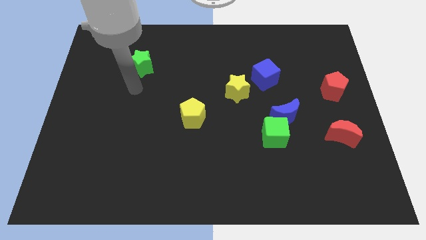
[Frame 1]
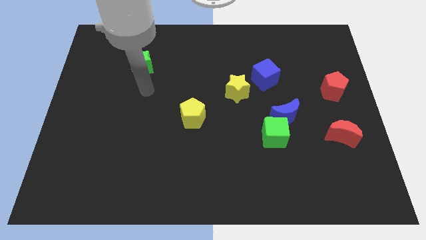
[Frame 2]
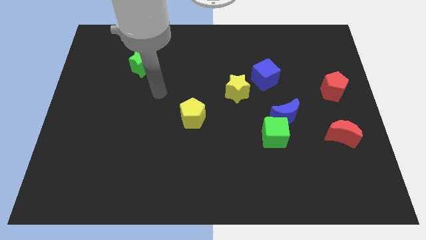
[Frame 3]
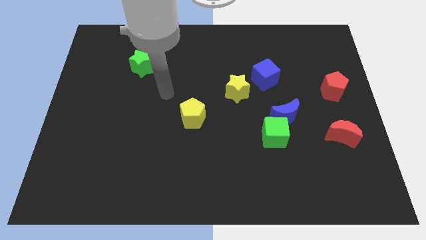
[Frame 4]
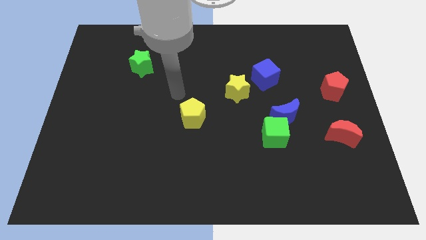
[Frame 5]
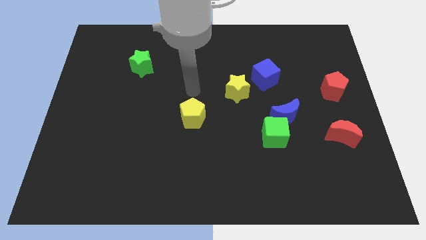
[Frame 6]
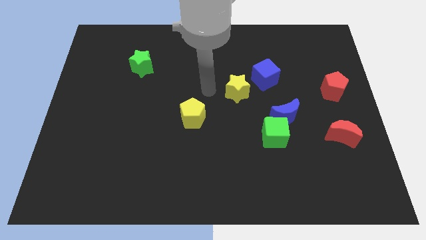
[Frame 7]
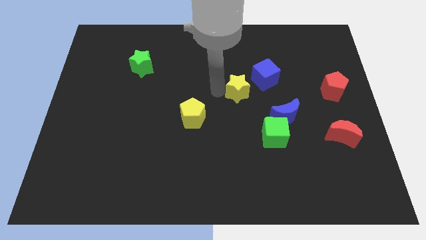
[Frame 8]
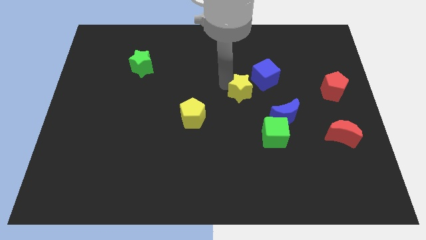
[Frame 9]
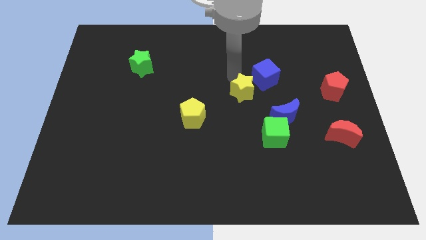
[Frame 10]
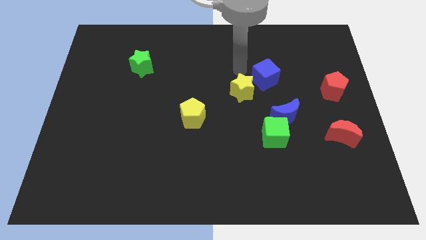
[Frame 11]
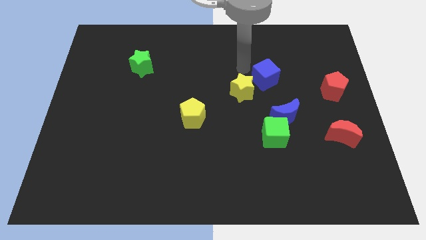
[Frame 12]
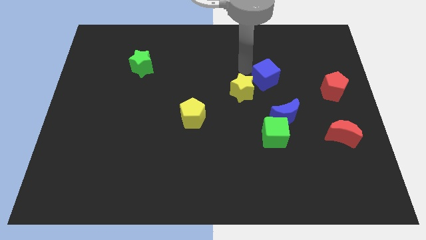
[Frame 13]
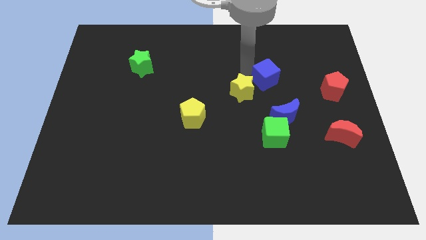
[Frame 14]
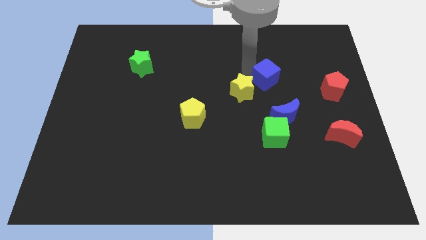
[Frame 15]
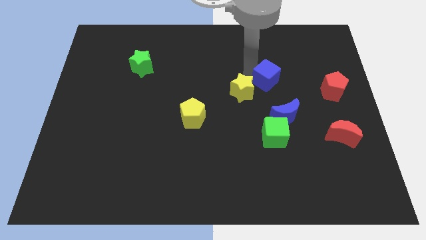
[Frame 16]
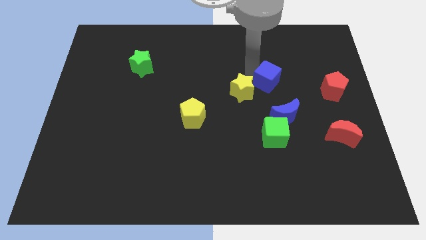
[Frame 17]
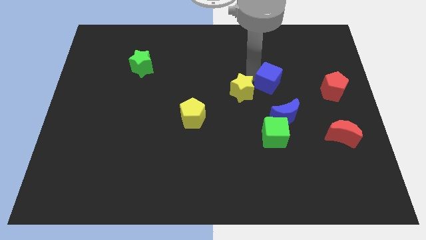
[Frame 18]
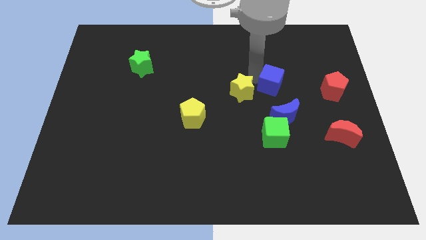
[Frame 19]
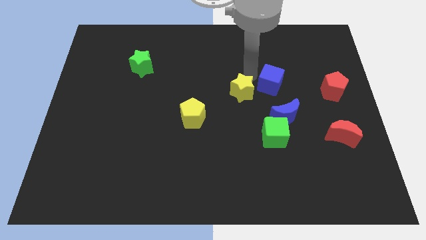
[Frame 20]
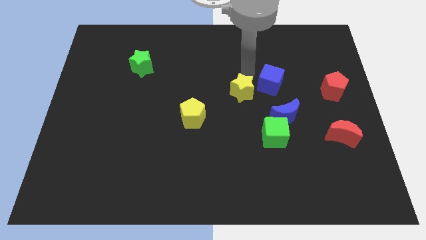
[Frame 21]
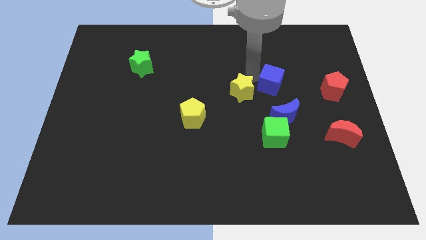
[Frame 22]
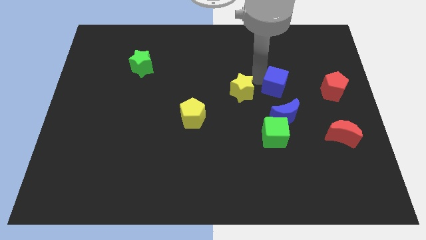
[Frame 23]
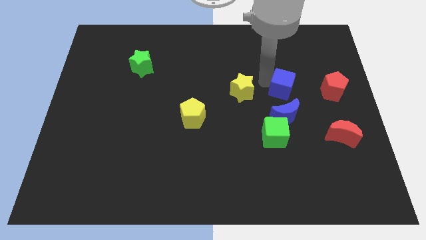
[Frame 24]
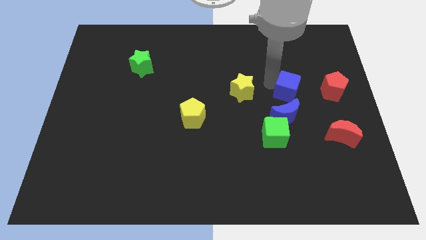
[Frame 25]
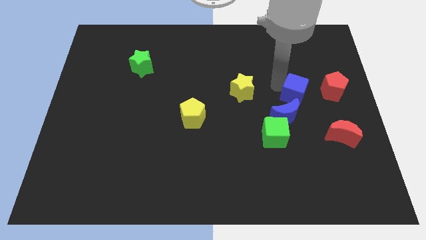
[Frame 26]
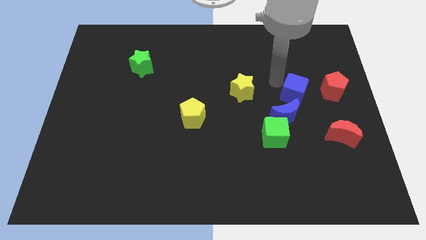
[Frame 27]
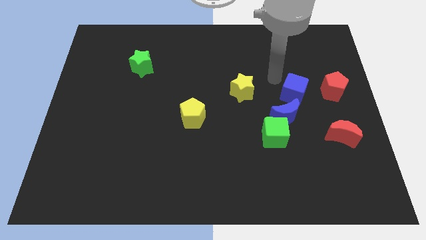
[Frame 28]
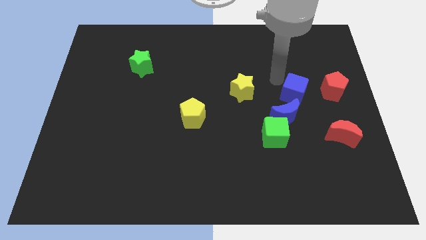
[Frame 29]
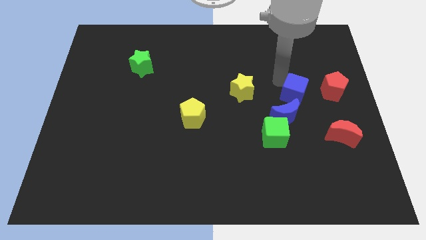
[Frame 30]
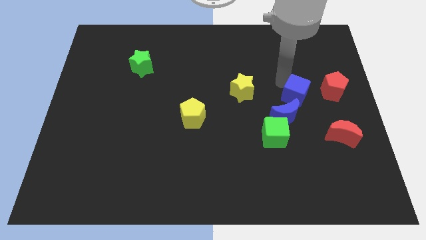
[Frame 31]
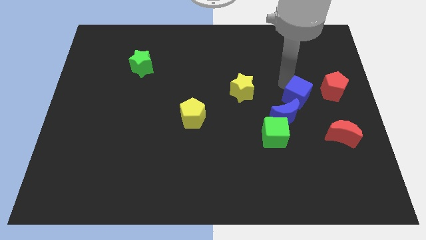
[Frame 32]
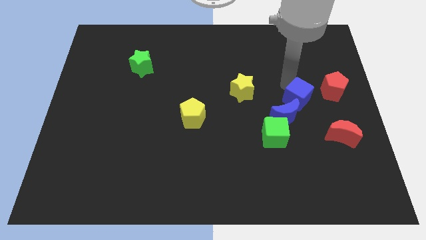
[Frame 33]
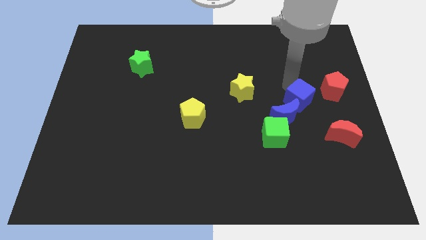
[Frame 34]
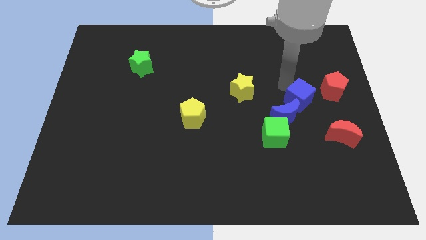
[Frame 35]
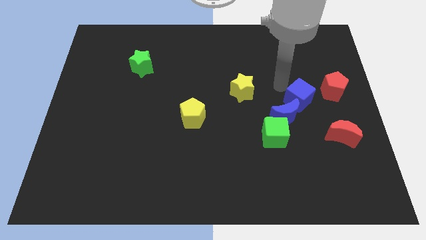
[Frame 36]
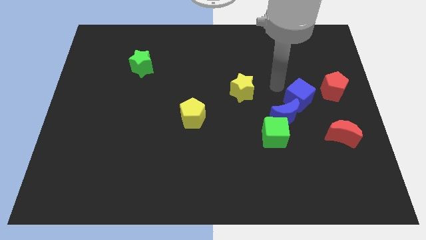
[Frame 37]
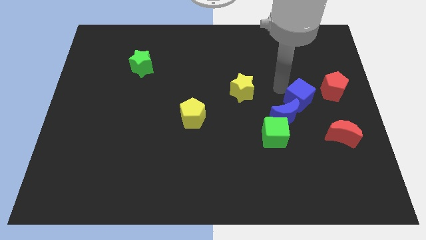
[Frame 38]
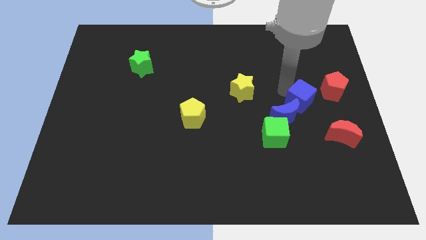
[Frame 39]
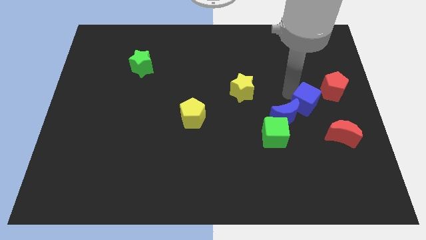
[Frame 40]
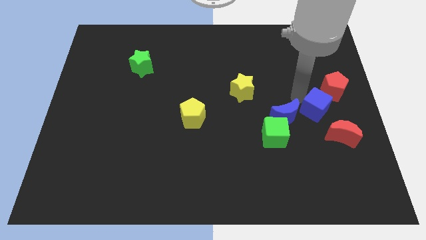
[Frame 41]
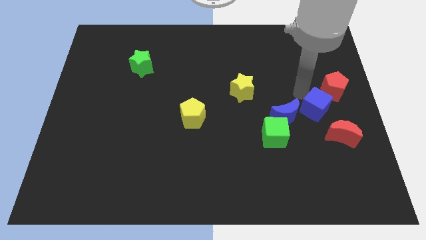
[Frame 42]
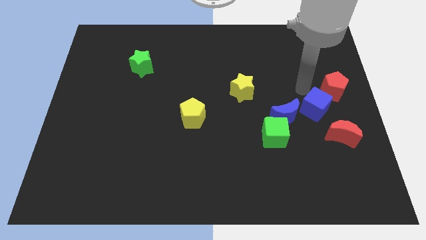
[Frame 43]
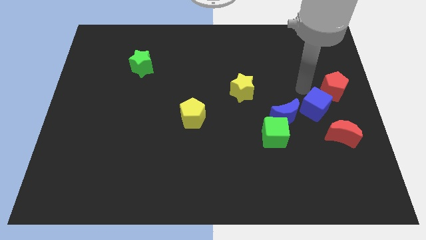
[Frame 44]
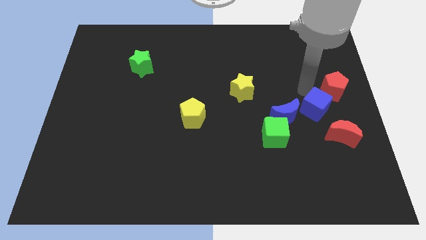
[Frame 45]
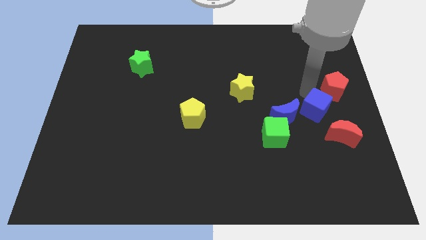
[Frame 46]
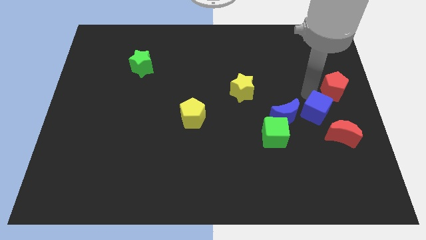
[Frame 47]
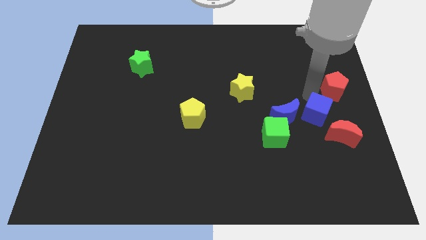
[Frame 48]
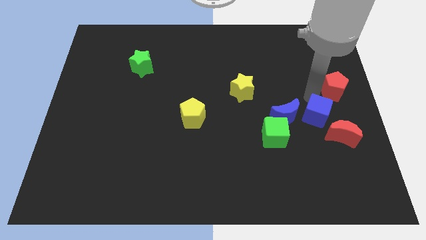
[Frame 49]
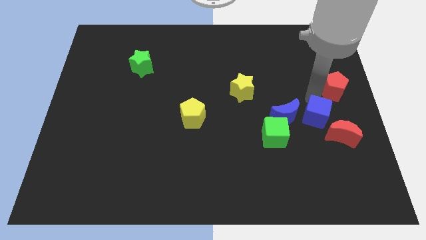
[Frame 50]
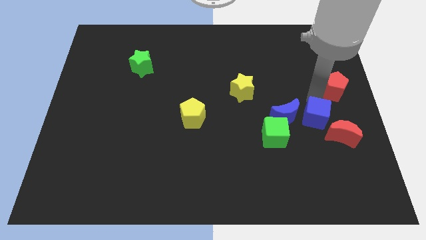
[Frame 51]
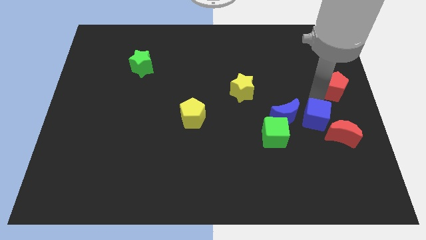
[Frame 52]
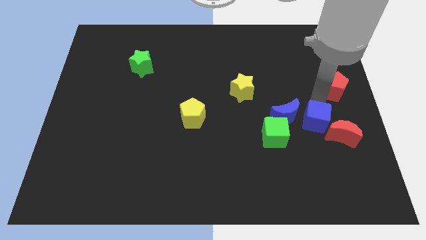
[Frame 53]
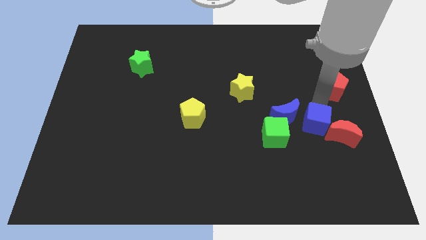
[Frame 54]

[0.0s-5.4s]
push the blue cube towards the red moon

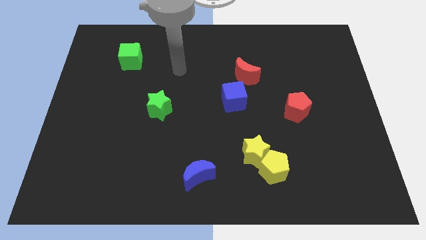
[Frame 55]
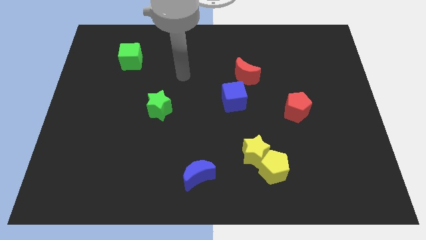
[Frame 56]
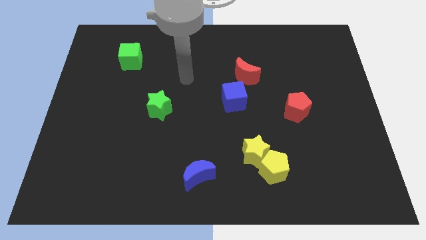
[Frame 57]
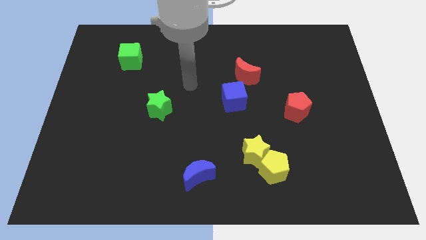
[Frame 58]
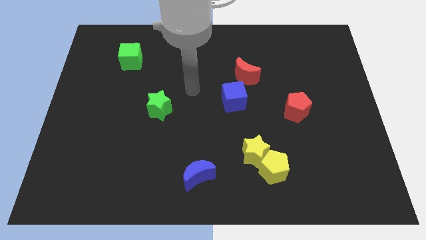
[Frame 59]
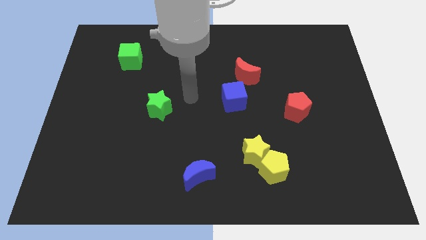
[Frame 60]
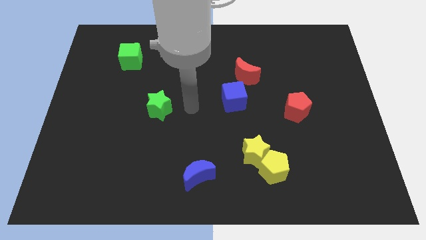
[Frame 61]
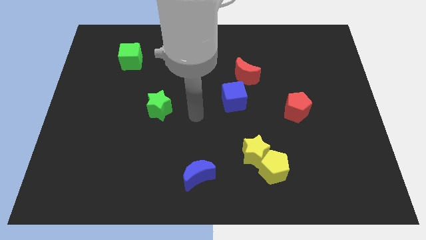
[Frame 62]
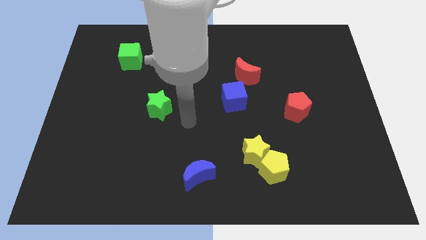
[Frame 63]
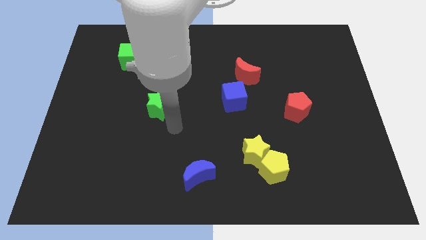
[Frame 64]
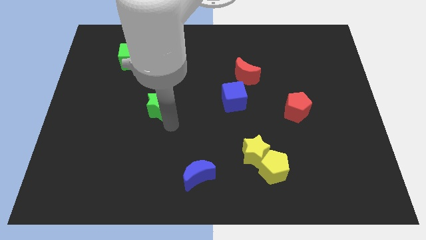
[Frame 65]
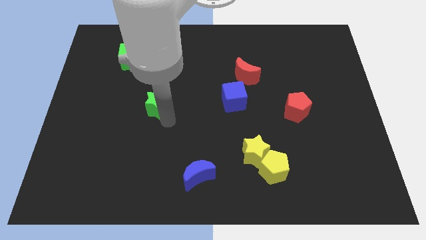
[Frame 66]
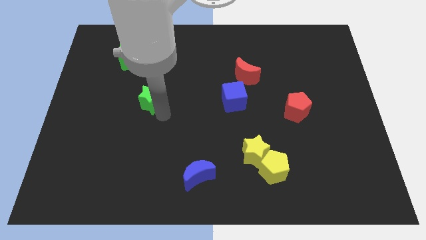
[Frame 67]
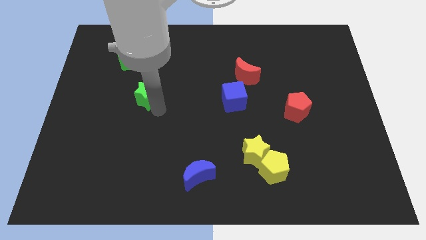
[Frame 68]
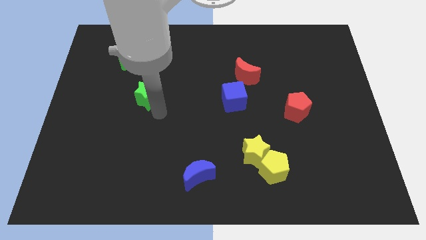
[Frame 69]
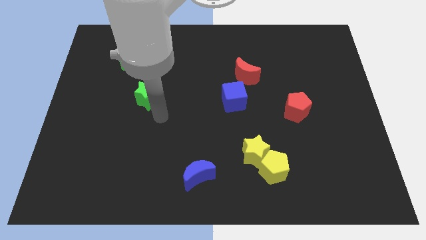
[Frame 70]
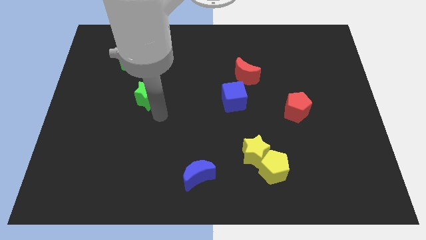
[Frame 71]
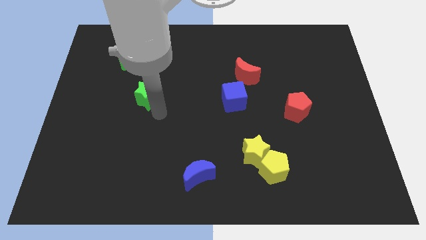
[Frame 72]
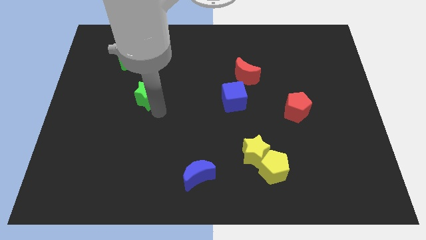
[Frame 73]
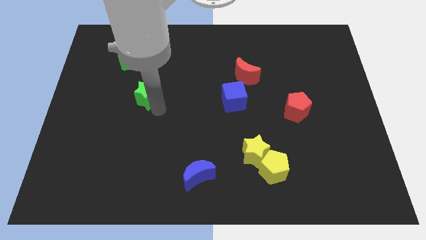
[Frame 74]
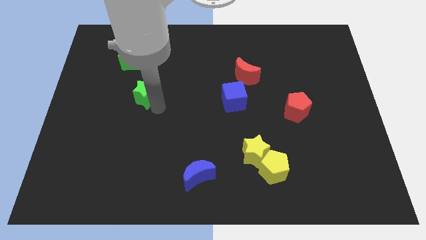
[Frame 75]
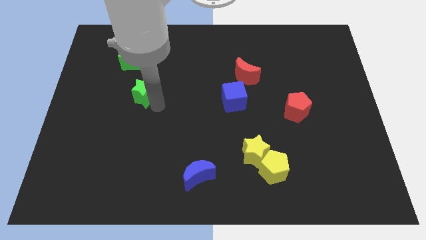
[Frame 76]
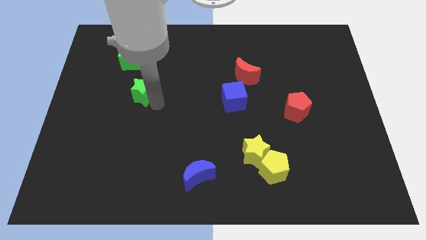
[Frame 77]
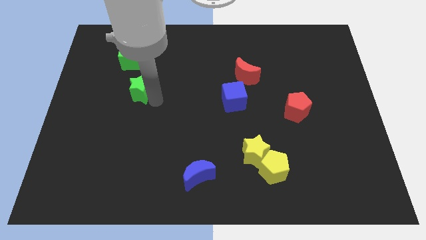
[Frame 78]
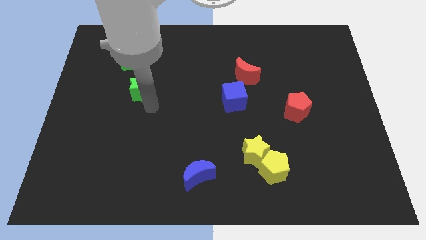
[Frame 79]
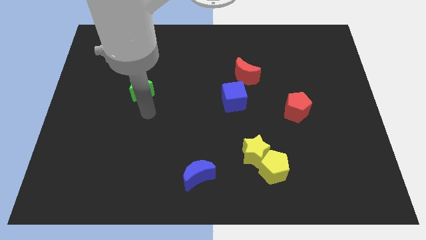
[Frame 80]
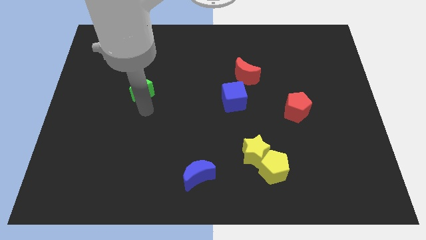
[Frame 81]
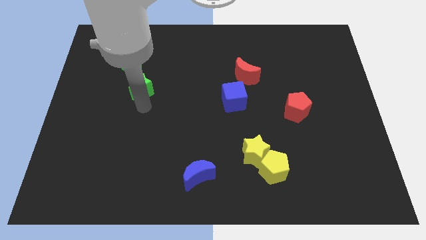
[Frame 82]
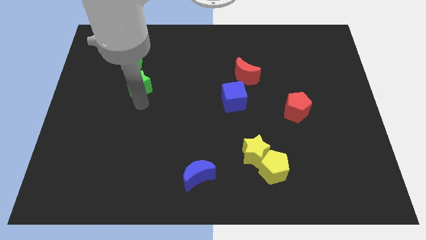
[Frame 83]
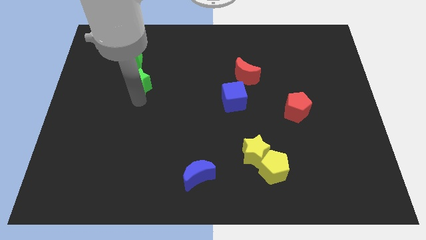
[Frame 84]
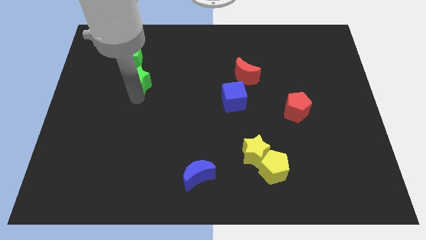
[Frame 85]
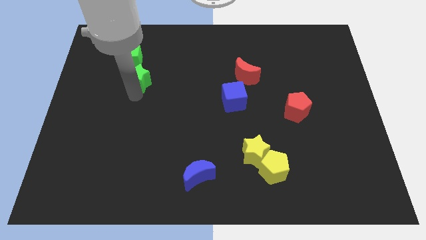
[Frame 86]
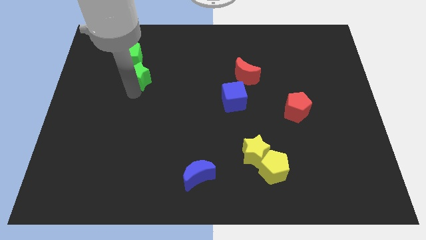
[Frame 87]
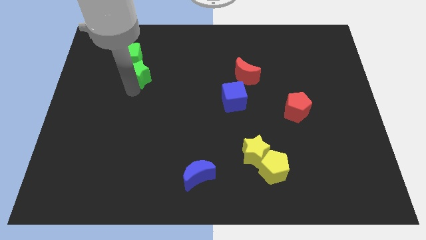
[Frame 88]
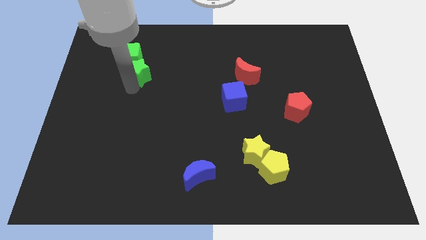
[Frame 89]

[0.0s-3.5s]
move the green star towards the green cube
